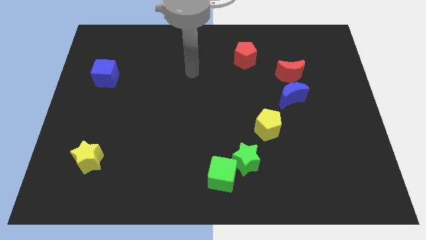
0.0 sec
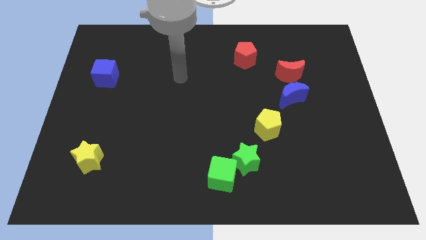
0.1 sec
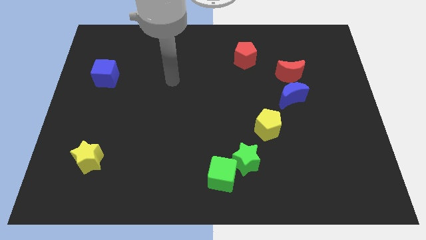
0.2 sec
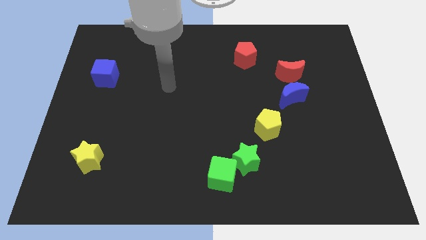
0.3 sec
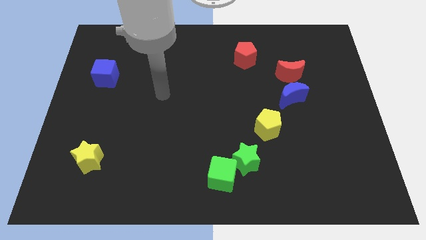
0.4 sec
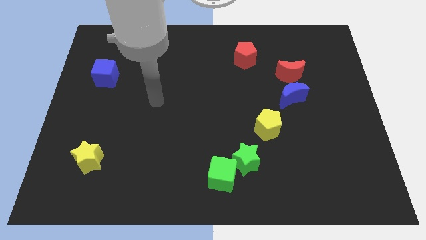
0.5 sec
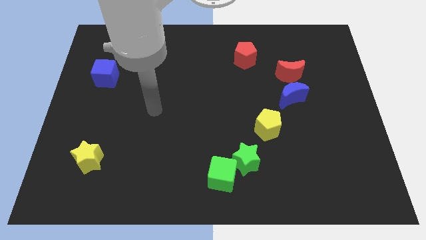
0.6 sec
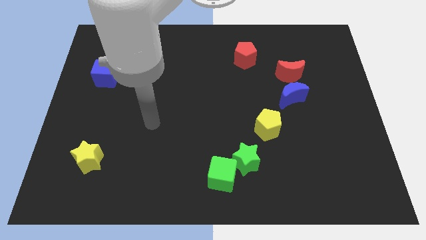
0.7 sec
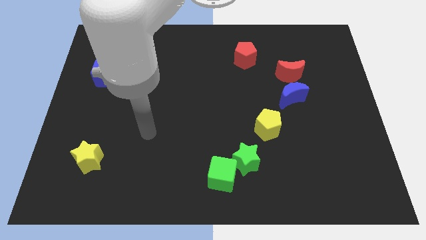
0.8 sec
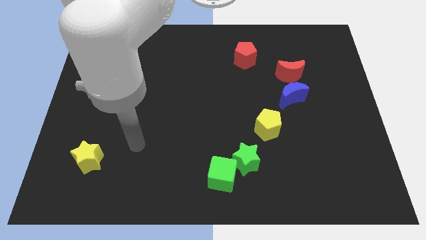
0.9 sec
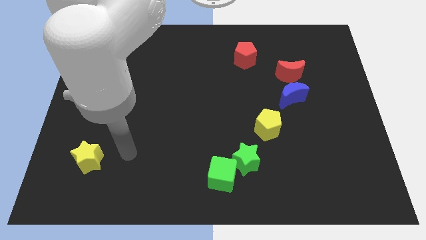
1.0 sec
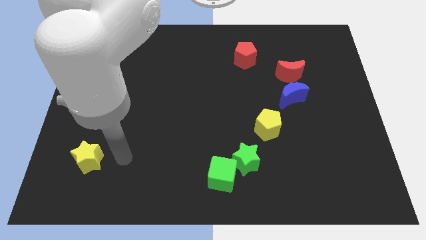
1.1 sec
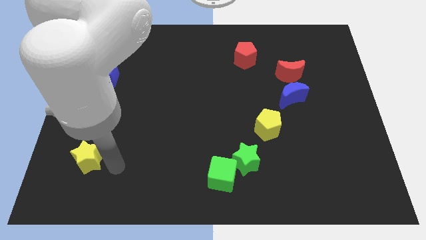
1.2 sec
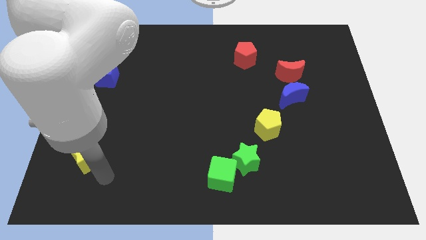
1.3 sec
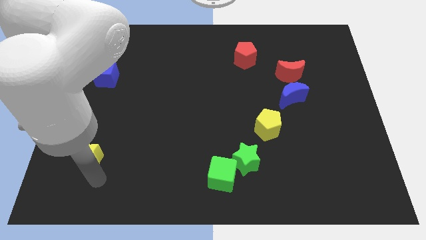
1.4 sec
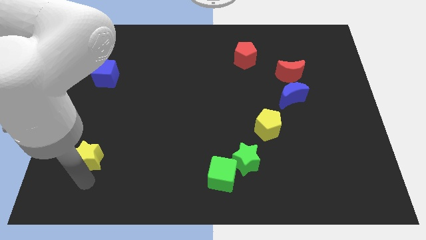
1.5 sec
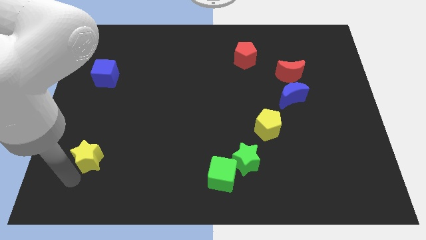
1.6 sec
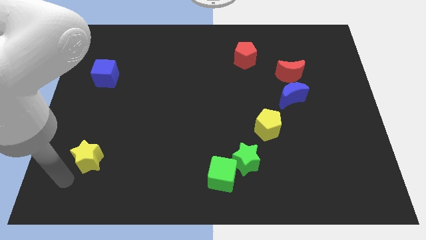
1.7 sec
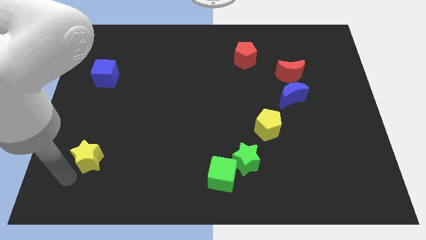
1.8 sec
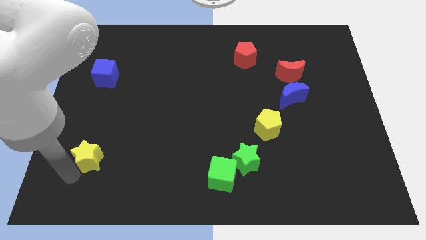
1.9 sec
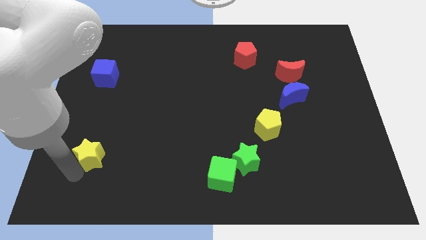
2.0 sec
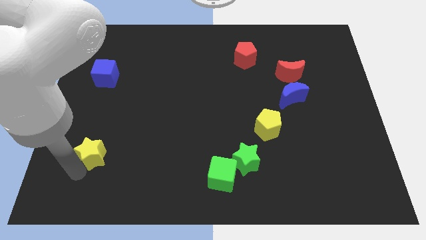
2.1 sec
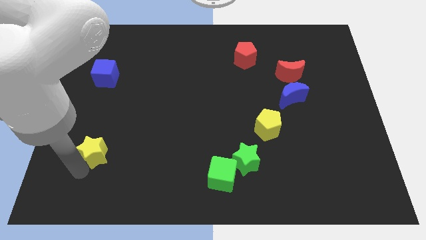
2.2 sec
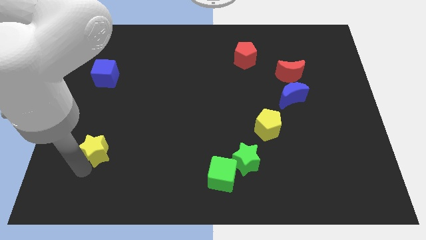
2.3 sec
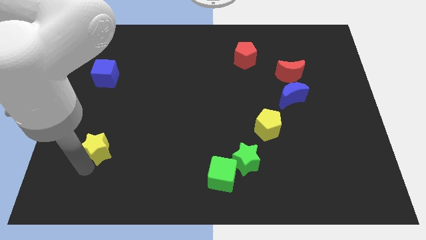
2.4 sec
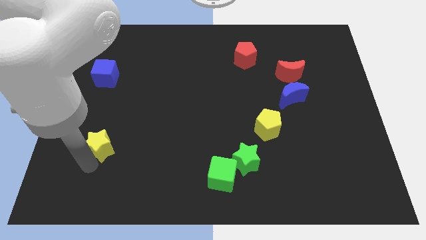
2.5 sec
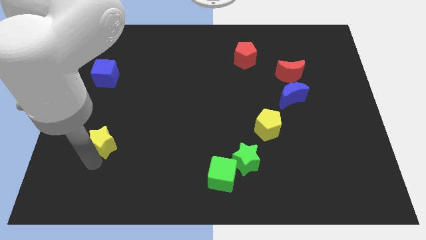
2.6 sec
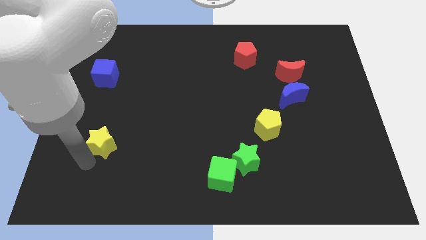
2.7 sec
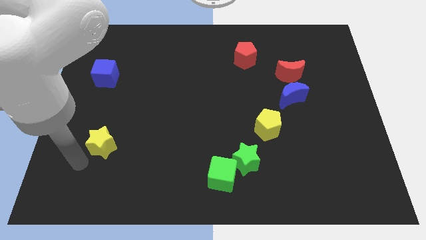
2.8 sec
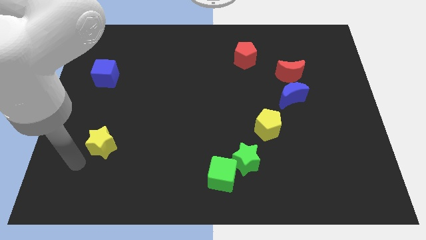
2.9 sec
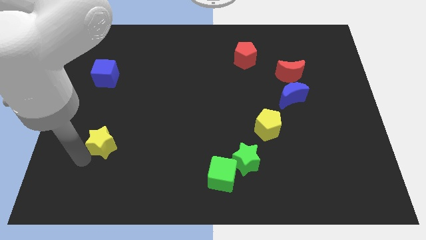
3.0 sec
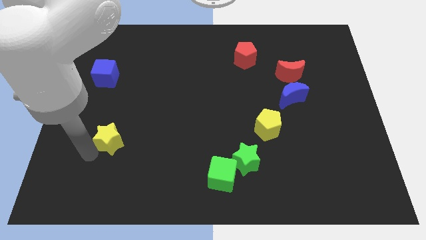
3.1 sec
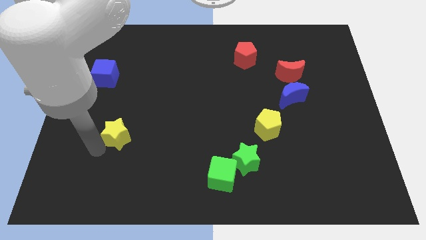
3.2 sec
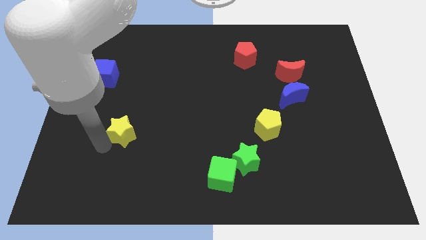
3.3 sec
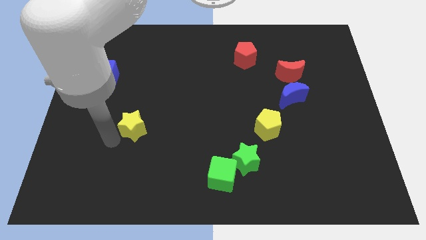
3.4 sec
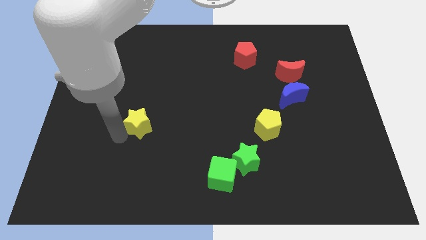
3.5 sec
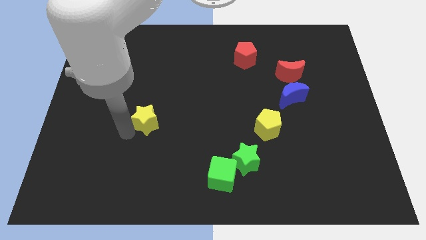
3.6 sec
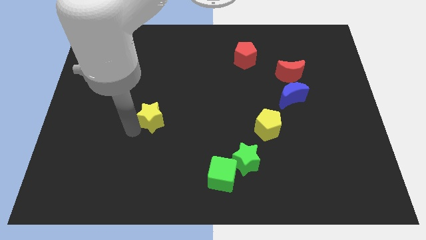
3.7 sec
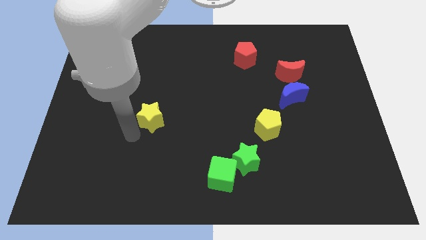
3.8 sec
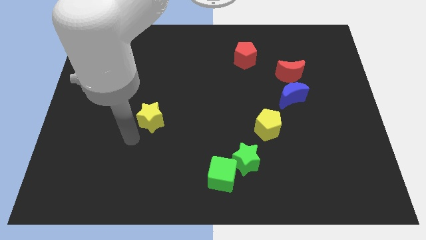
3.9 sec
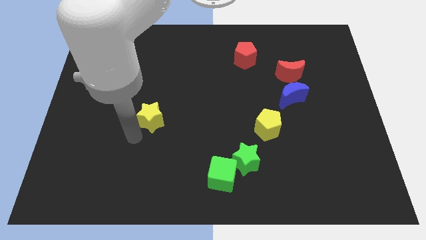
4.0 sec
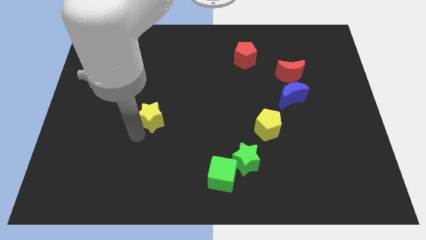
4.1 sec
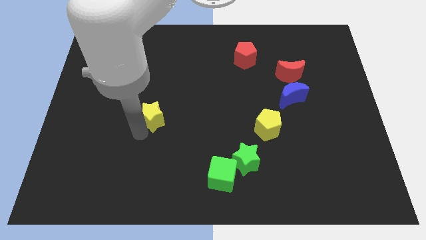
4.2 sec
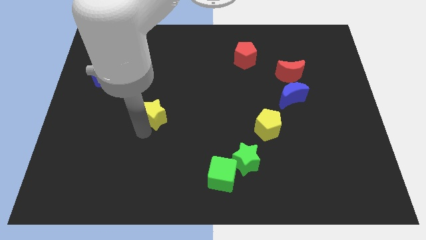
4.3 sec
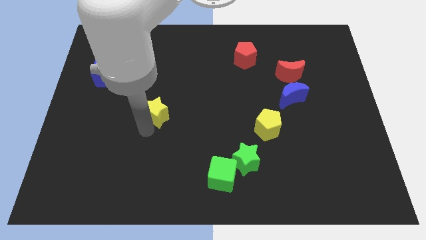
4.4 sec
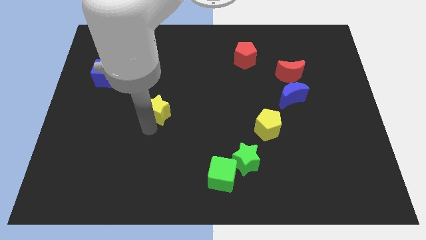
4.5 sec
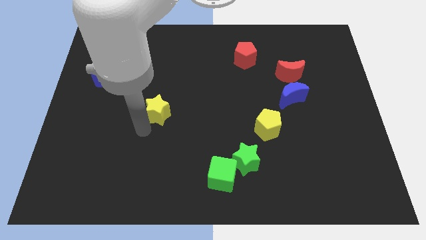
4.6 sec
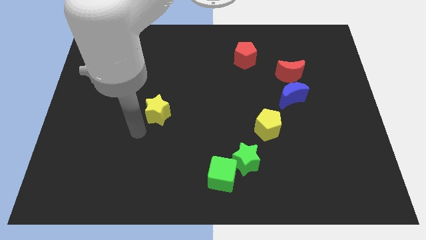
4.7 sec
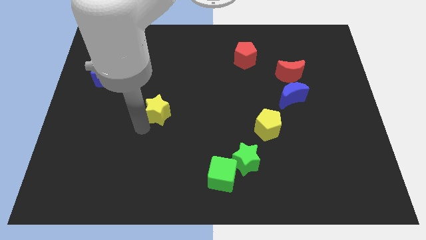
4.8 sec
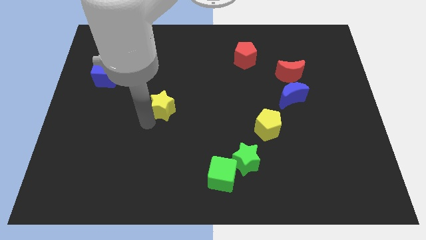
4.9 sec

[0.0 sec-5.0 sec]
push the yellow star diagonally upwards and right

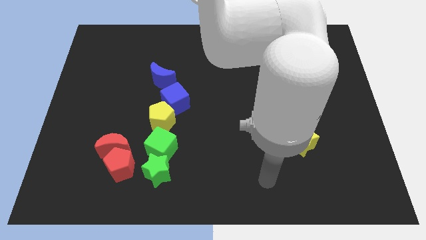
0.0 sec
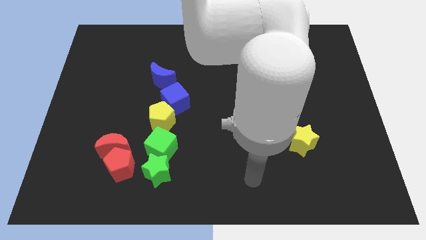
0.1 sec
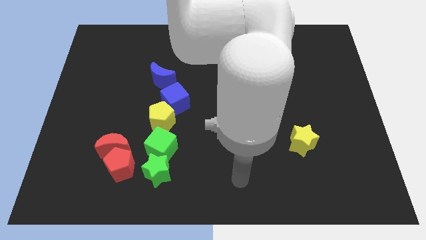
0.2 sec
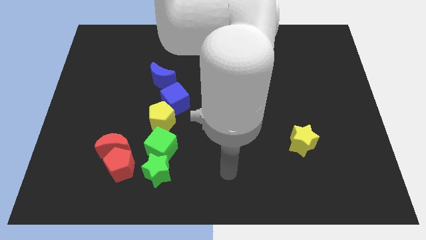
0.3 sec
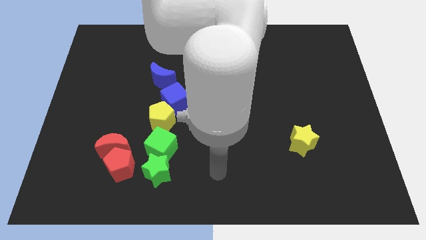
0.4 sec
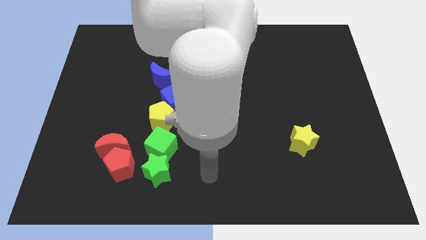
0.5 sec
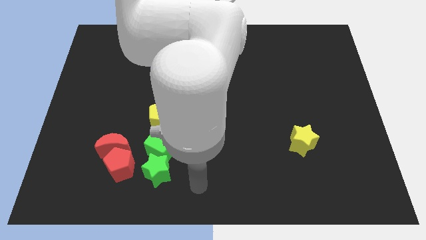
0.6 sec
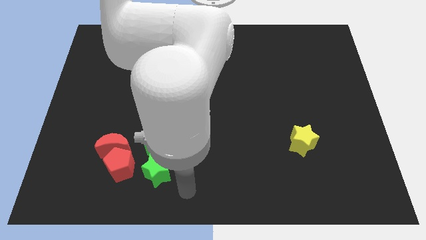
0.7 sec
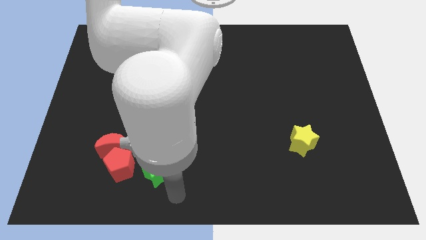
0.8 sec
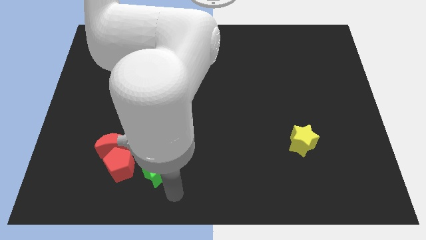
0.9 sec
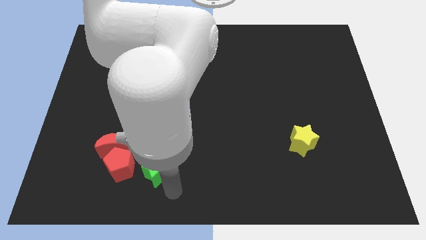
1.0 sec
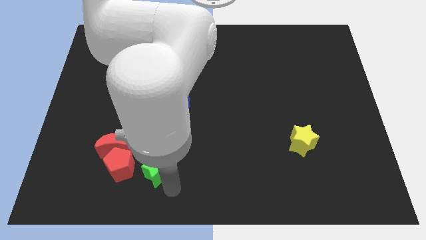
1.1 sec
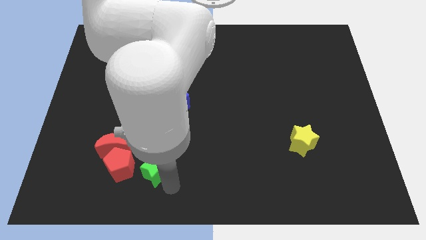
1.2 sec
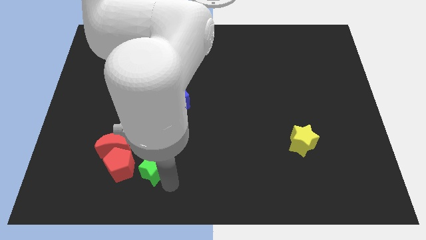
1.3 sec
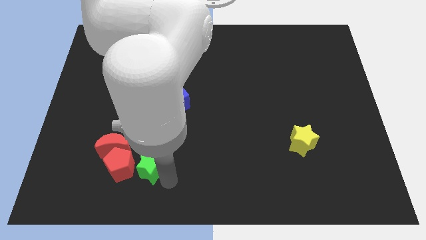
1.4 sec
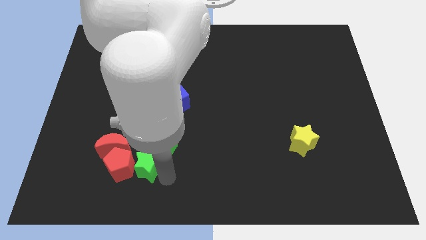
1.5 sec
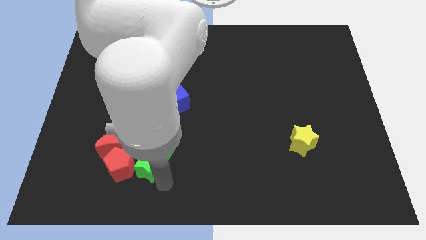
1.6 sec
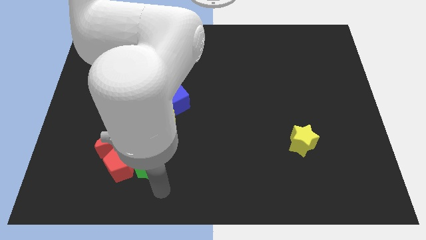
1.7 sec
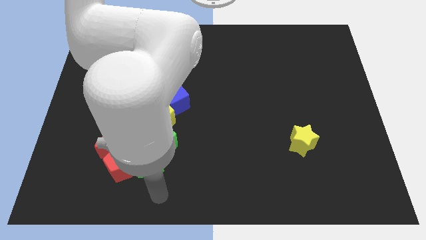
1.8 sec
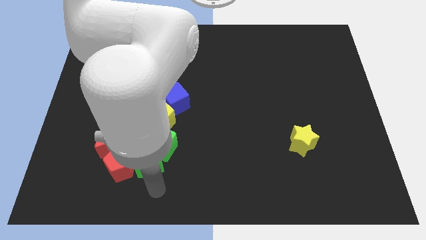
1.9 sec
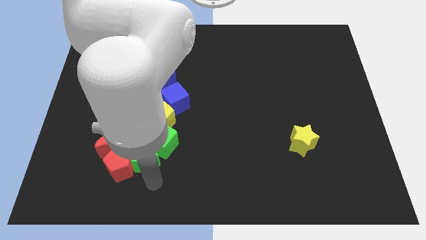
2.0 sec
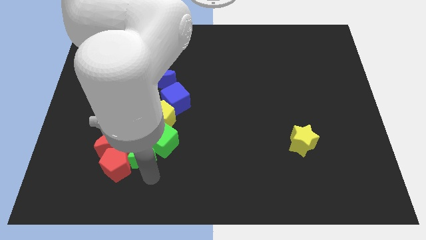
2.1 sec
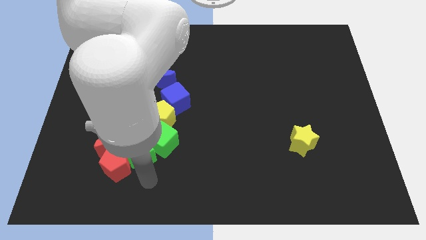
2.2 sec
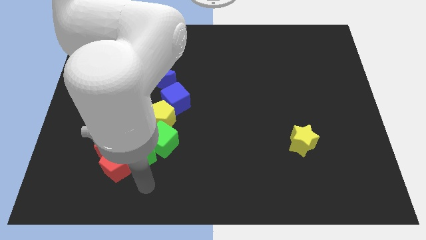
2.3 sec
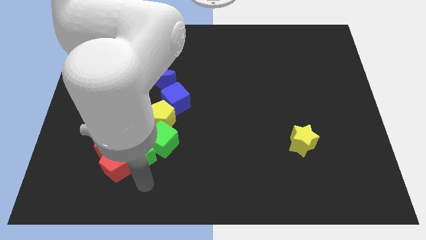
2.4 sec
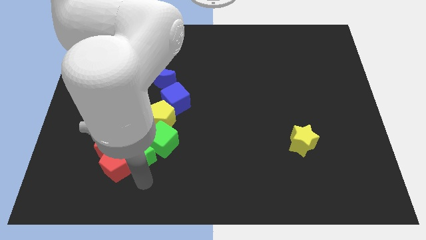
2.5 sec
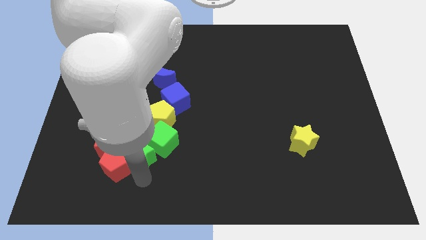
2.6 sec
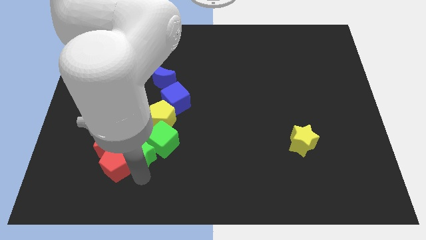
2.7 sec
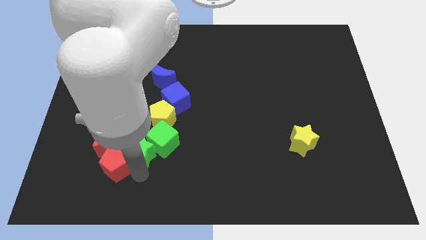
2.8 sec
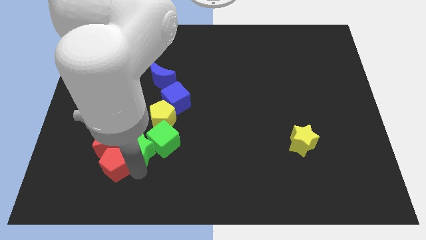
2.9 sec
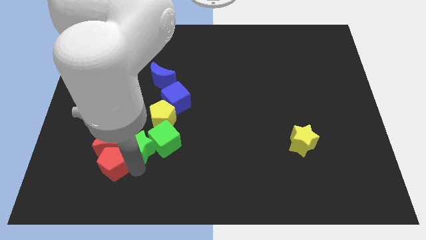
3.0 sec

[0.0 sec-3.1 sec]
move the green star upwards and left diagonally a little bit
